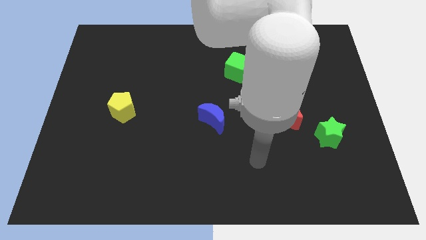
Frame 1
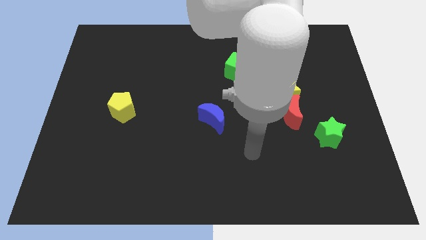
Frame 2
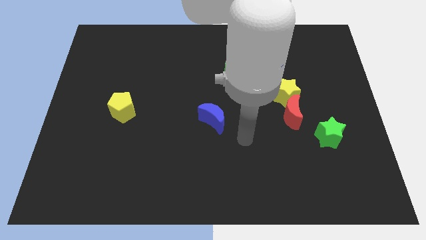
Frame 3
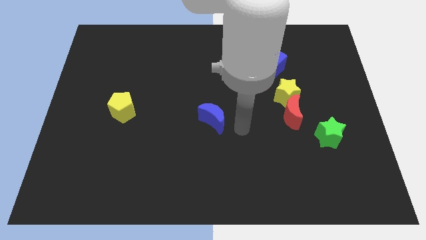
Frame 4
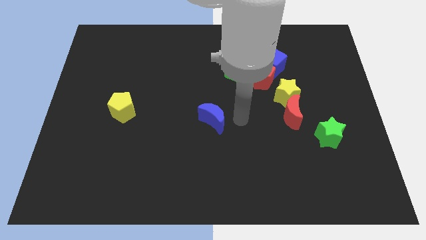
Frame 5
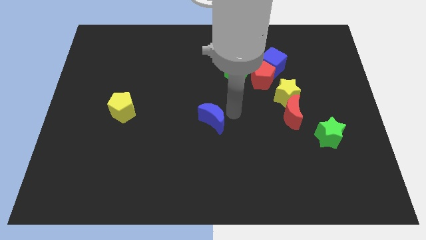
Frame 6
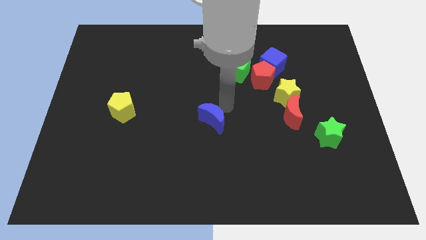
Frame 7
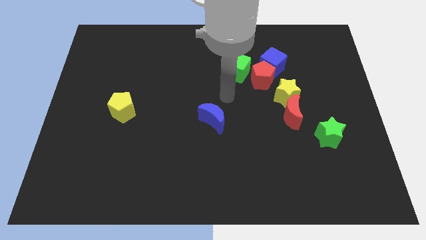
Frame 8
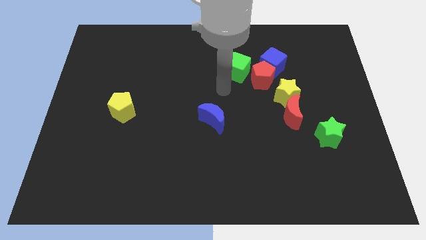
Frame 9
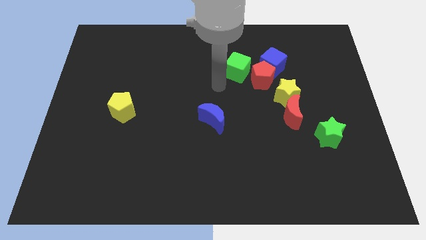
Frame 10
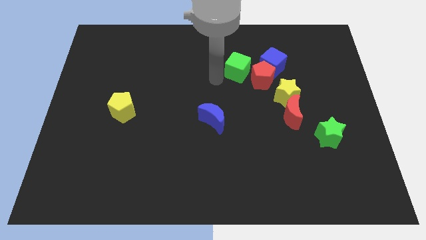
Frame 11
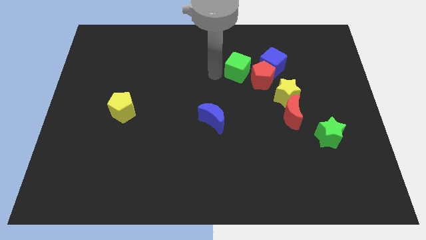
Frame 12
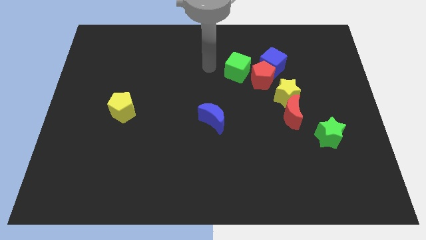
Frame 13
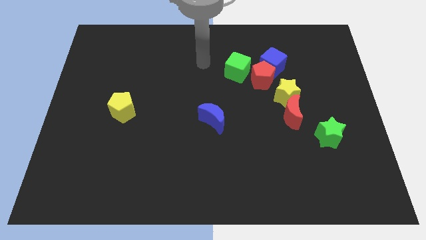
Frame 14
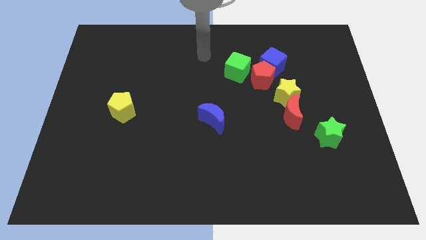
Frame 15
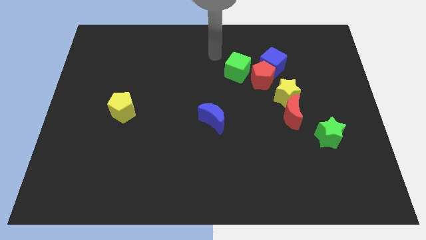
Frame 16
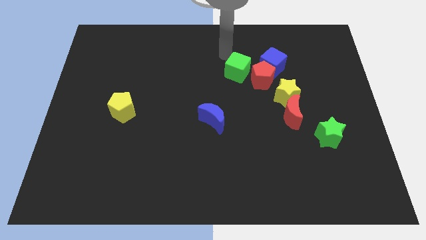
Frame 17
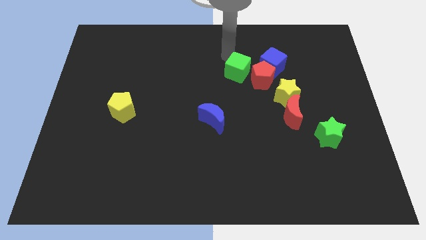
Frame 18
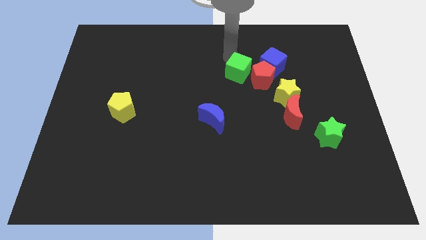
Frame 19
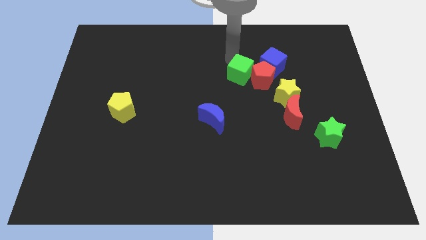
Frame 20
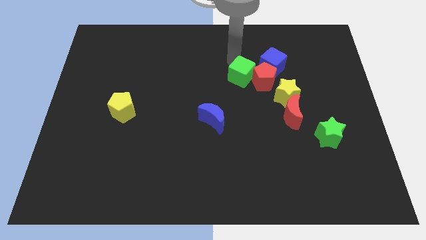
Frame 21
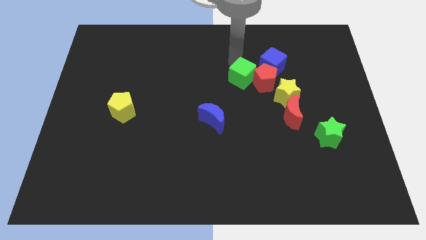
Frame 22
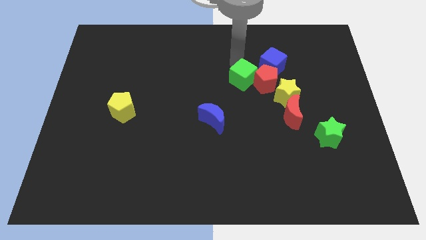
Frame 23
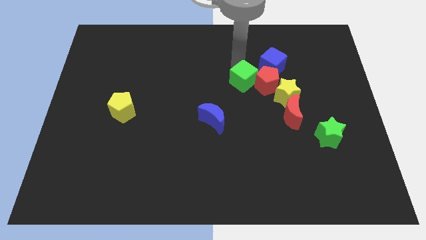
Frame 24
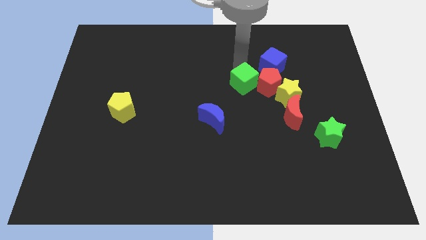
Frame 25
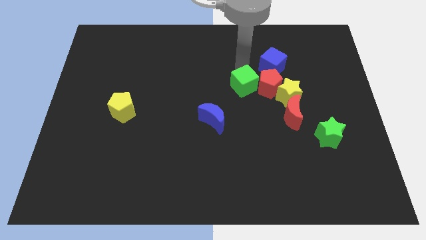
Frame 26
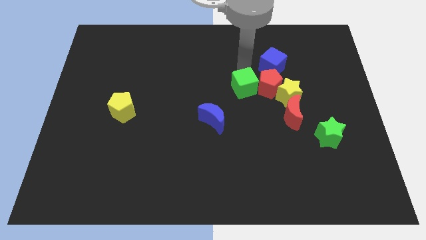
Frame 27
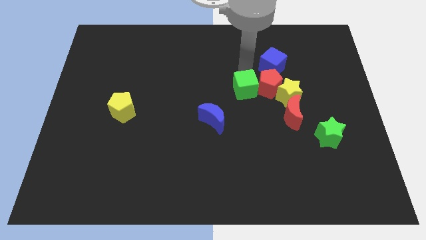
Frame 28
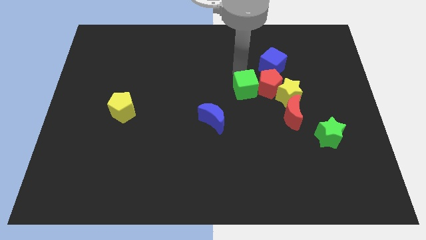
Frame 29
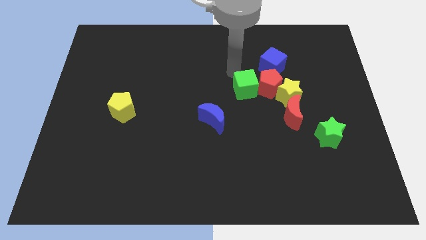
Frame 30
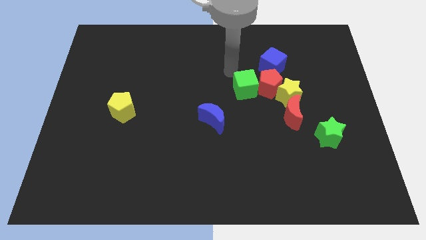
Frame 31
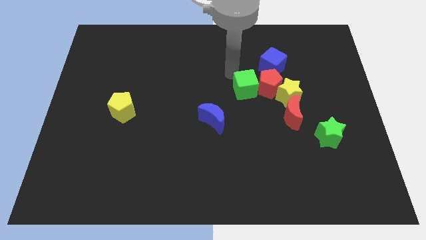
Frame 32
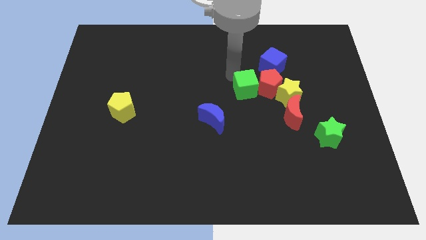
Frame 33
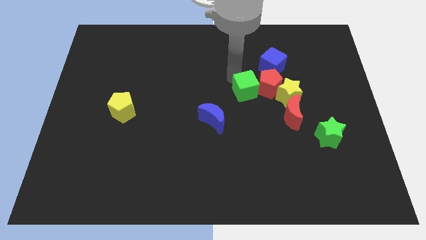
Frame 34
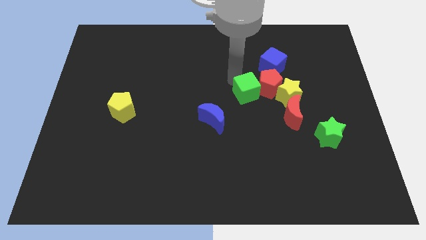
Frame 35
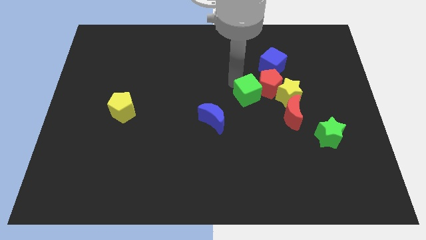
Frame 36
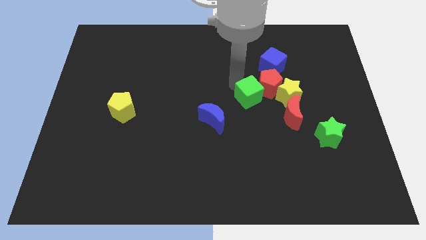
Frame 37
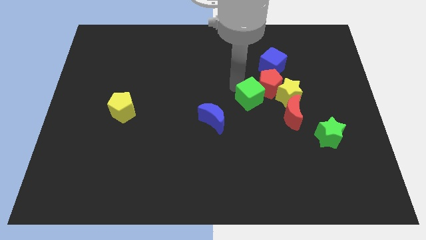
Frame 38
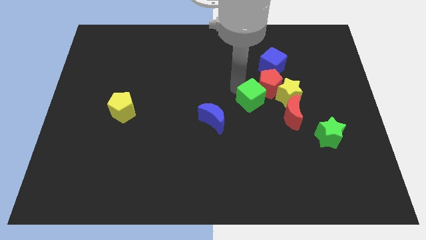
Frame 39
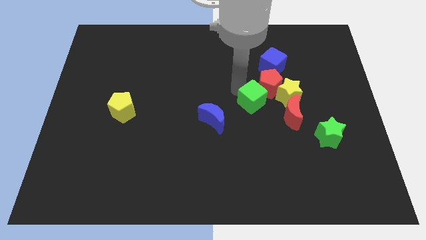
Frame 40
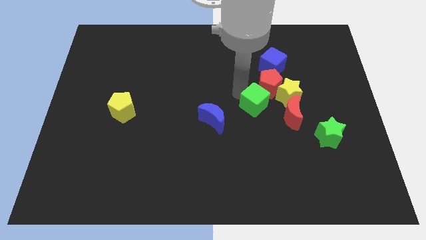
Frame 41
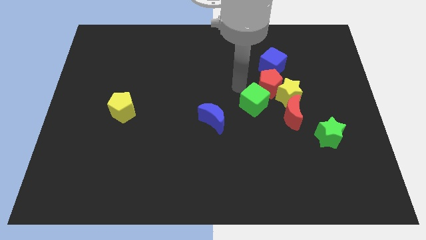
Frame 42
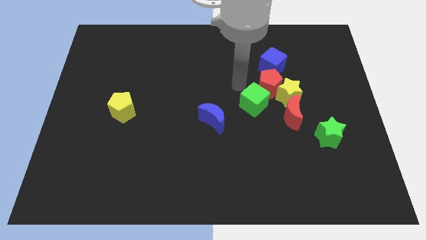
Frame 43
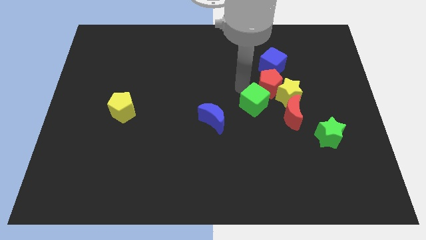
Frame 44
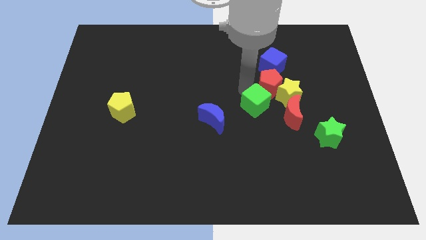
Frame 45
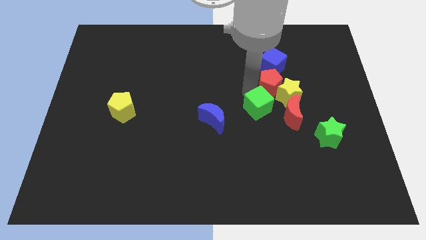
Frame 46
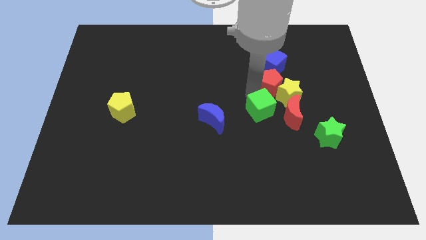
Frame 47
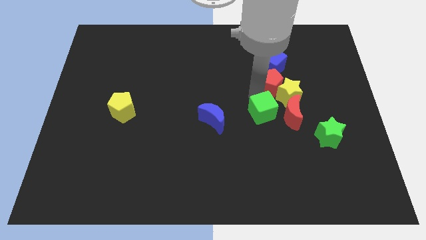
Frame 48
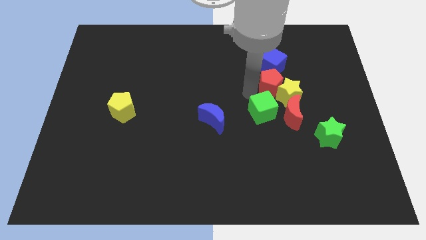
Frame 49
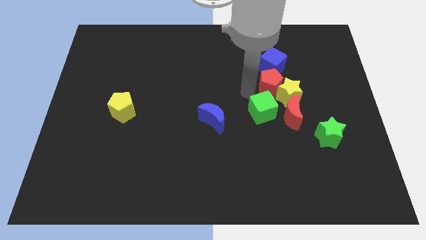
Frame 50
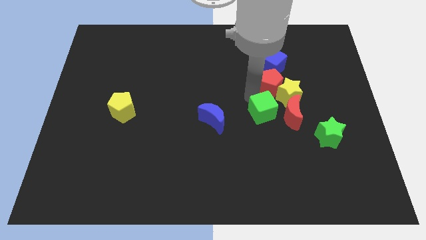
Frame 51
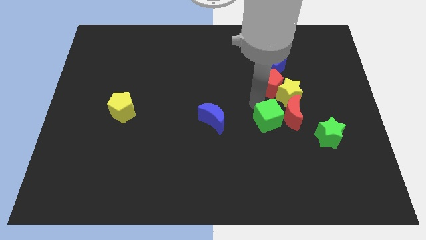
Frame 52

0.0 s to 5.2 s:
move the green cube to the left of the green star

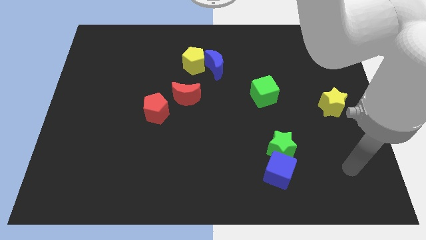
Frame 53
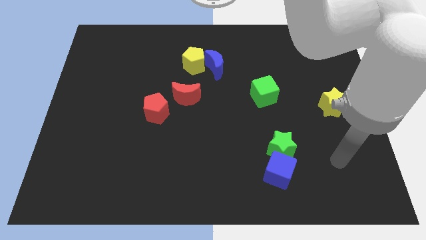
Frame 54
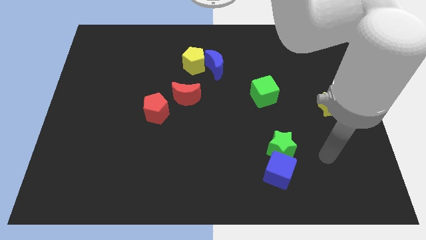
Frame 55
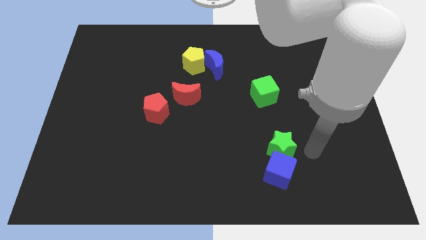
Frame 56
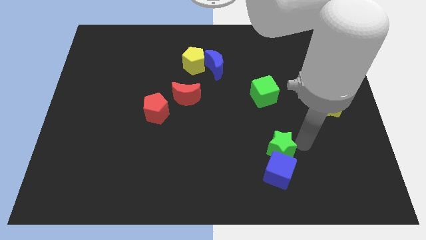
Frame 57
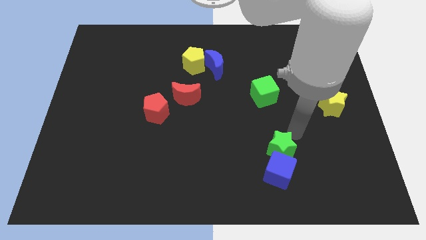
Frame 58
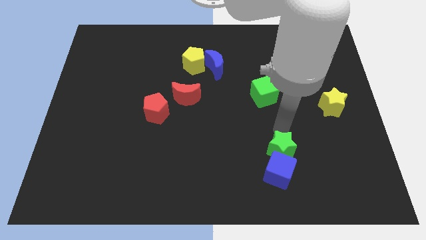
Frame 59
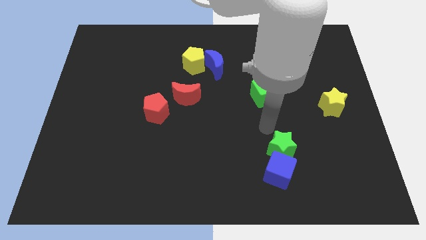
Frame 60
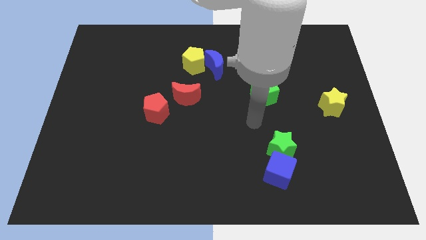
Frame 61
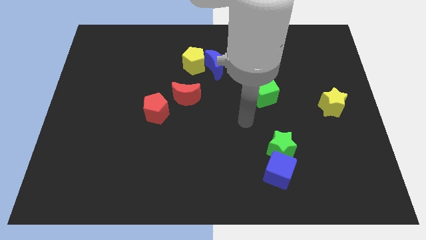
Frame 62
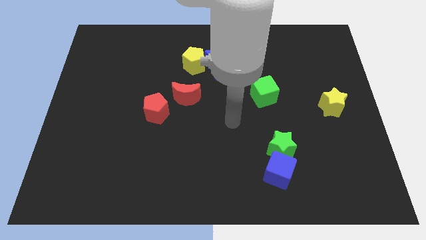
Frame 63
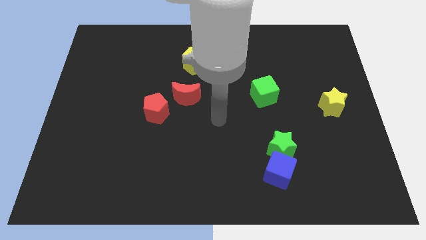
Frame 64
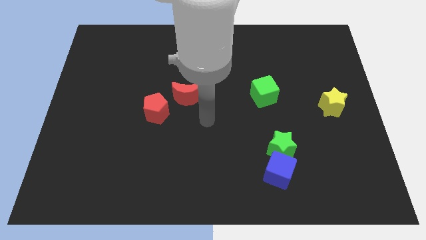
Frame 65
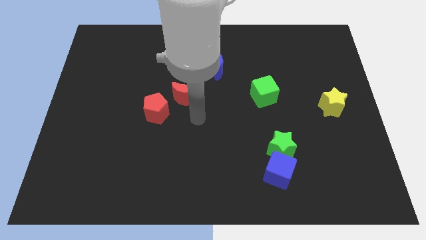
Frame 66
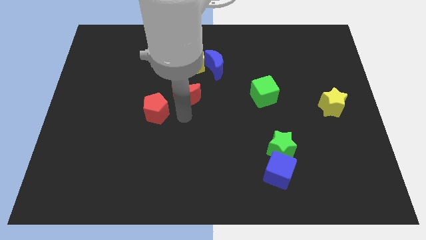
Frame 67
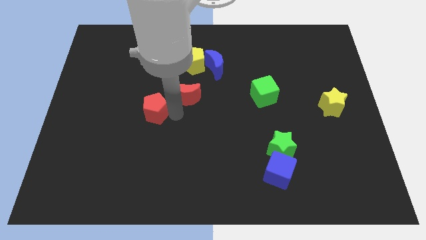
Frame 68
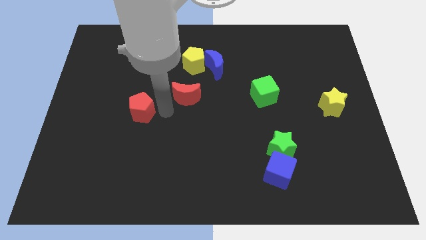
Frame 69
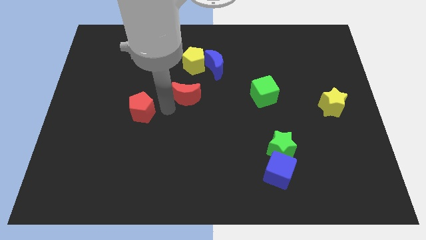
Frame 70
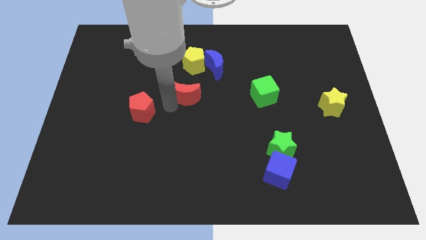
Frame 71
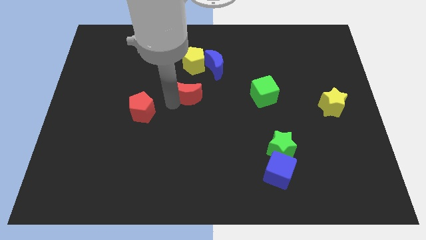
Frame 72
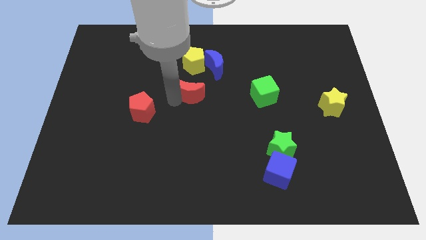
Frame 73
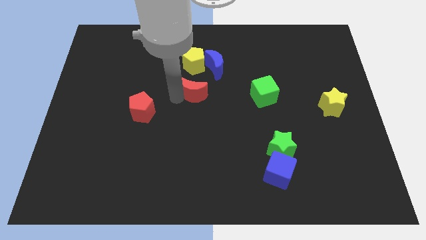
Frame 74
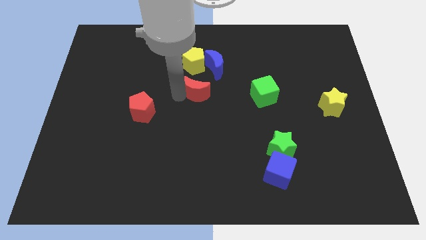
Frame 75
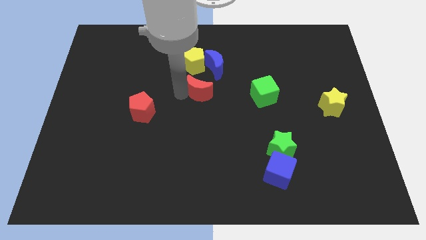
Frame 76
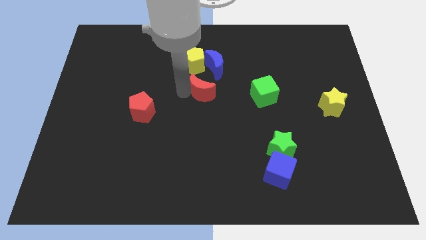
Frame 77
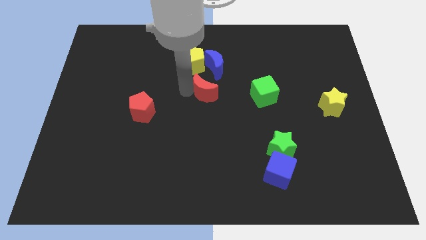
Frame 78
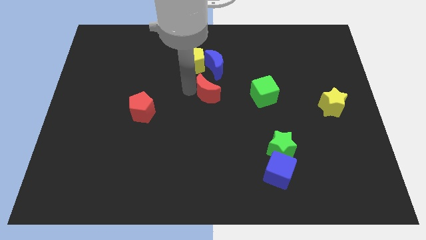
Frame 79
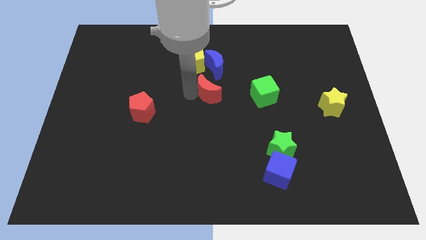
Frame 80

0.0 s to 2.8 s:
move the red moon diagonally down and to the right of the yellow pentagon
